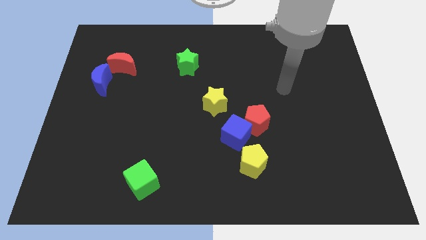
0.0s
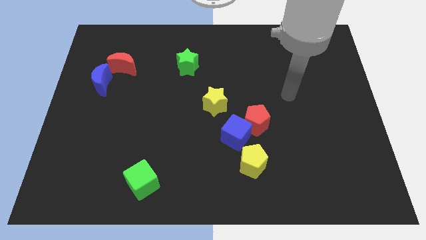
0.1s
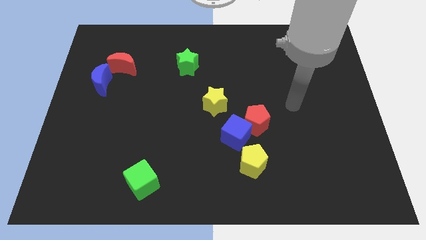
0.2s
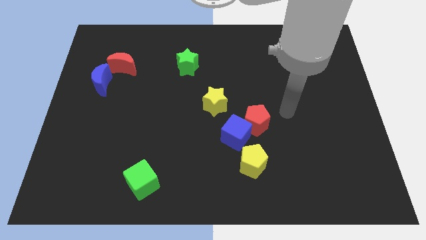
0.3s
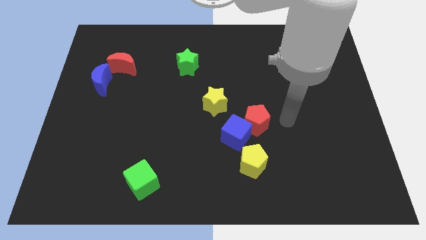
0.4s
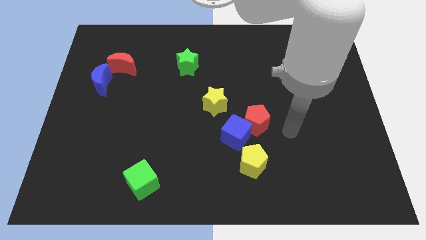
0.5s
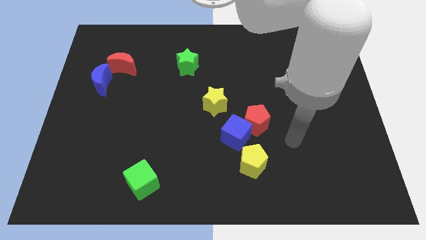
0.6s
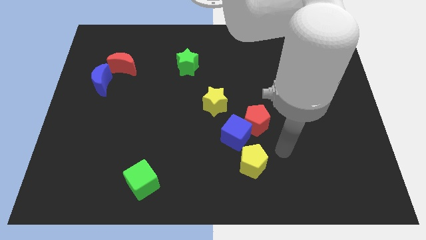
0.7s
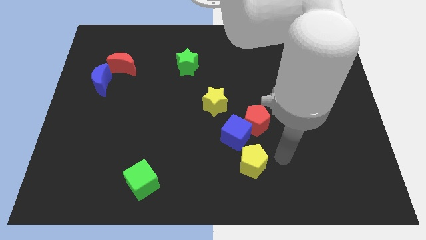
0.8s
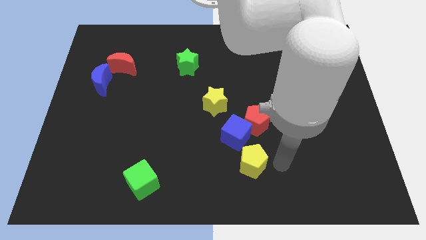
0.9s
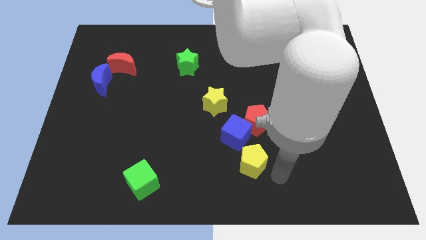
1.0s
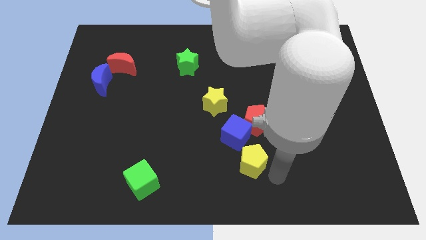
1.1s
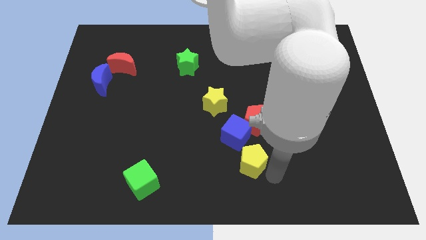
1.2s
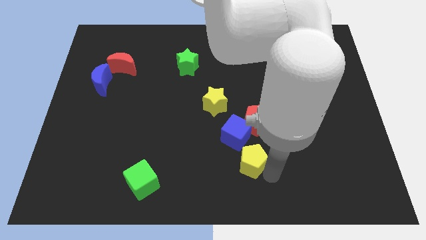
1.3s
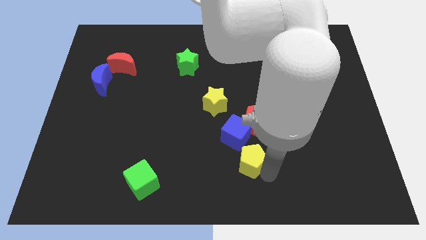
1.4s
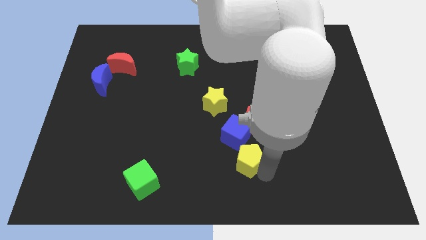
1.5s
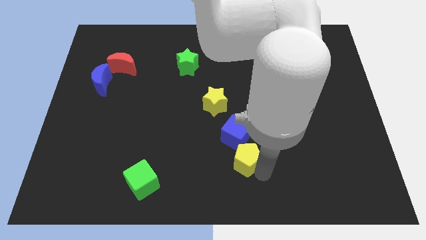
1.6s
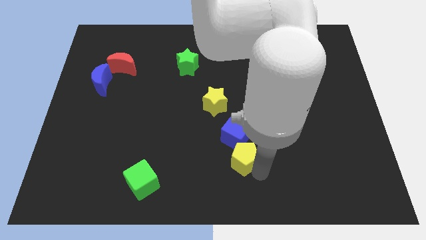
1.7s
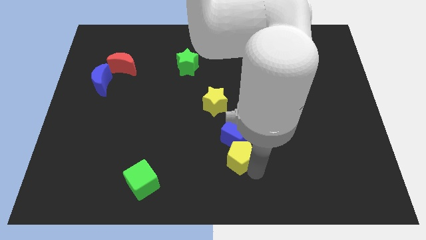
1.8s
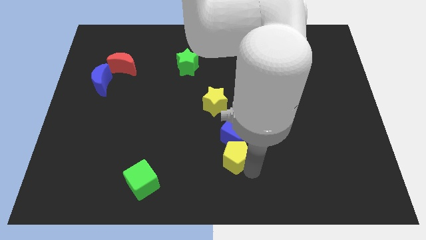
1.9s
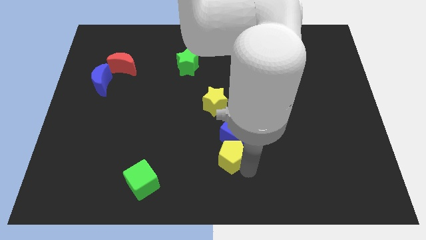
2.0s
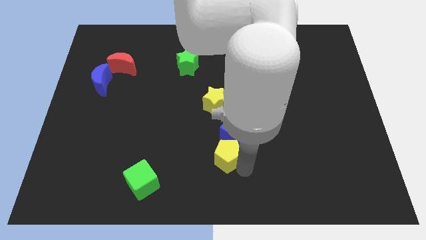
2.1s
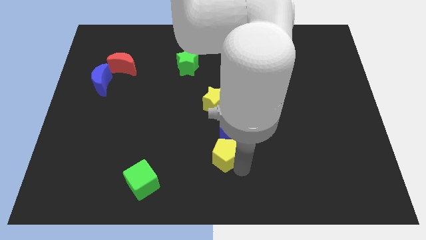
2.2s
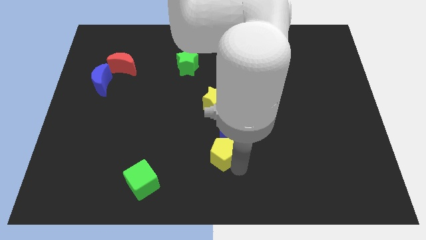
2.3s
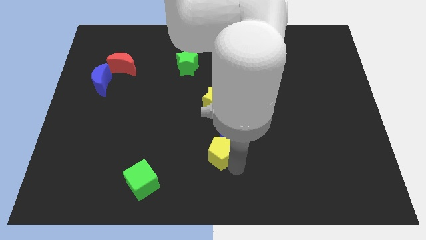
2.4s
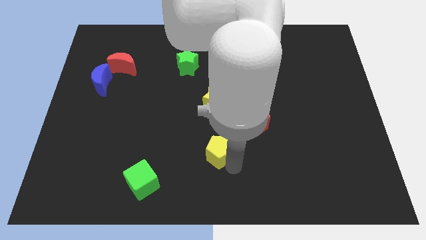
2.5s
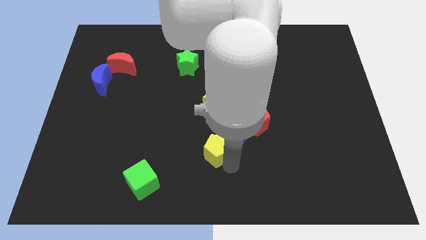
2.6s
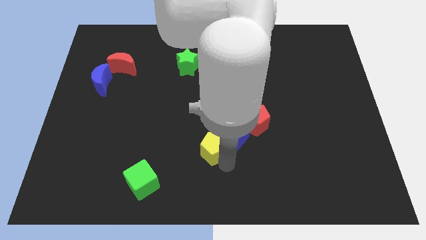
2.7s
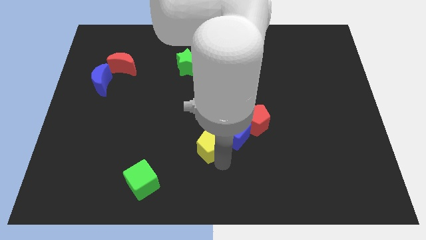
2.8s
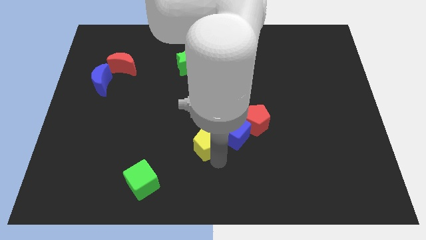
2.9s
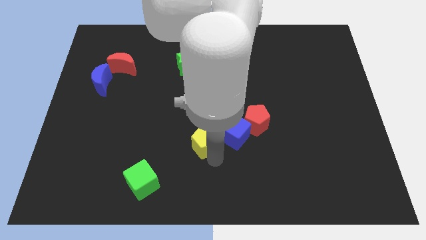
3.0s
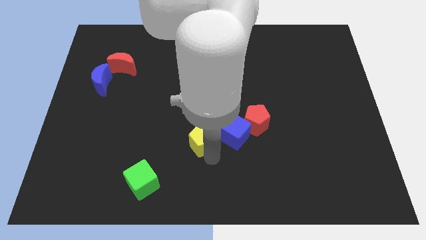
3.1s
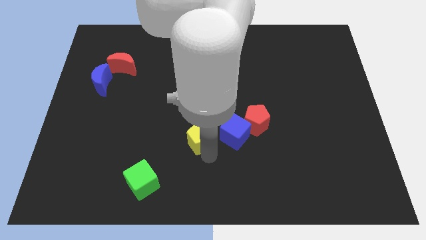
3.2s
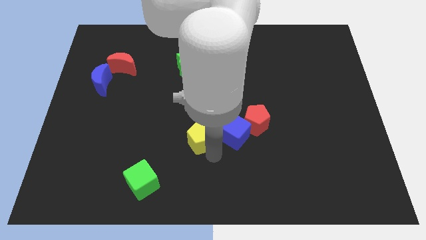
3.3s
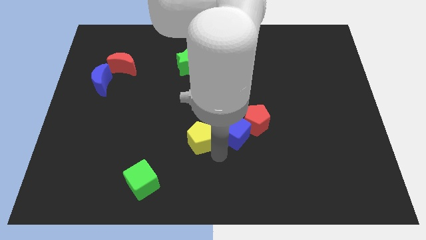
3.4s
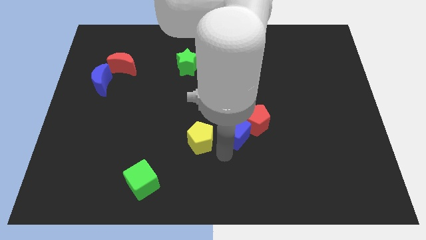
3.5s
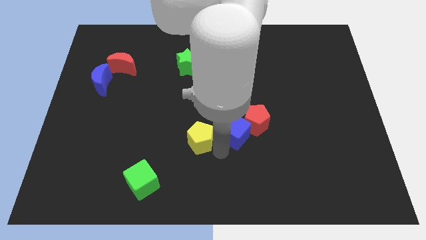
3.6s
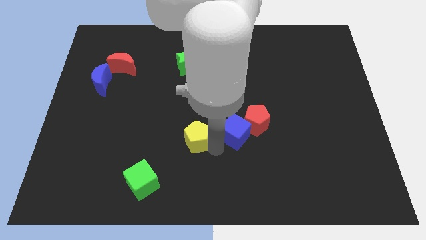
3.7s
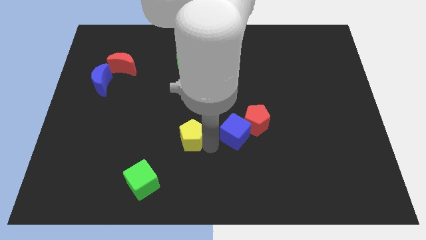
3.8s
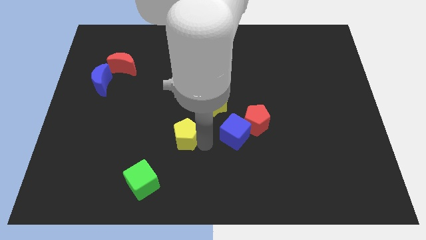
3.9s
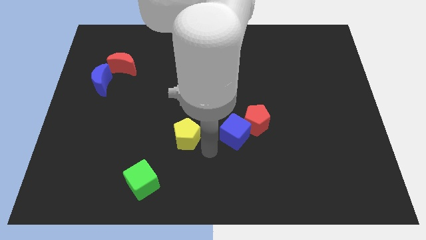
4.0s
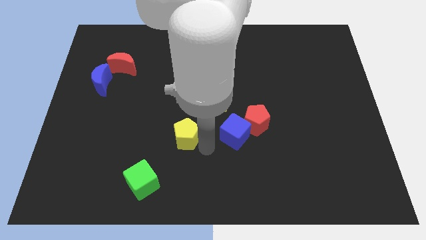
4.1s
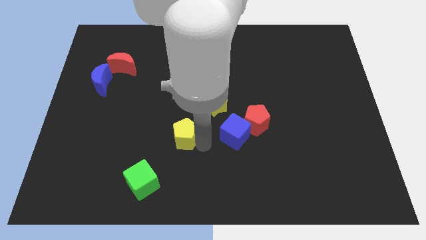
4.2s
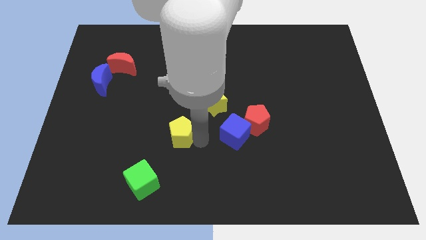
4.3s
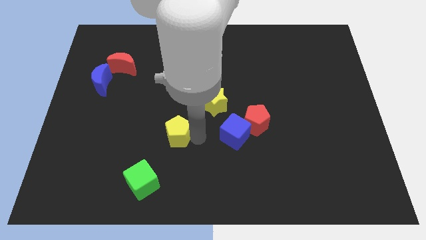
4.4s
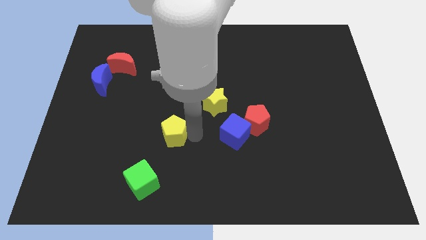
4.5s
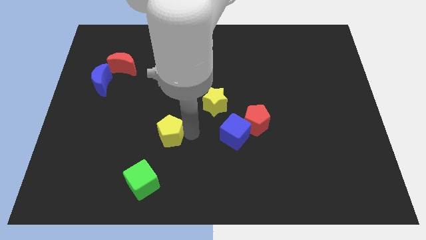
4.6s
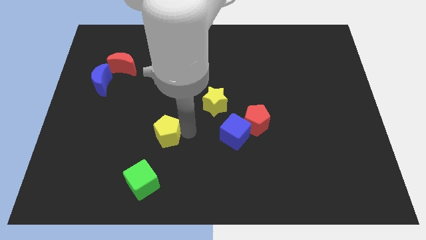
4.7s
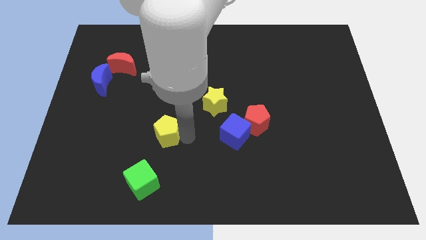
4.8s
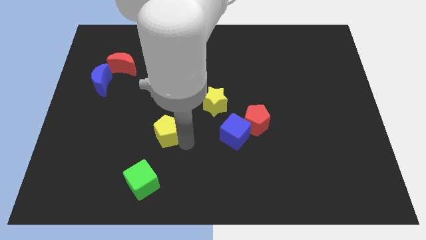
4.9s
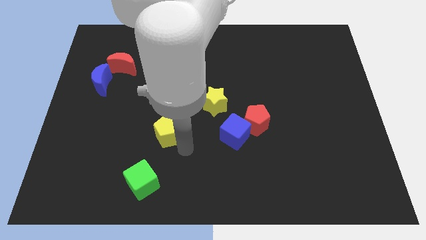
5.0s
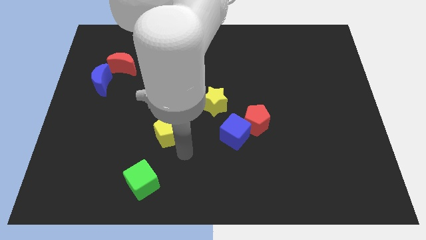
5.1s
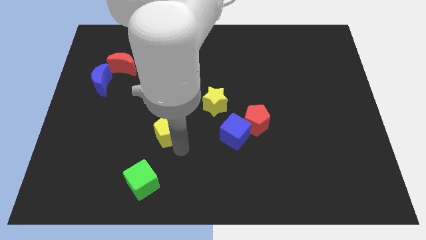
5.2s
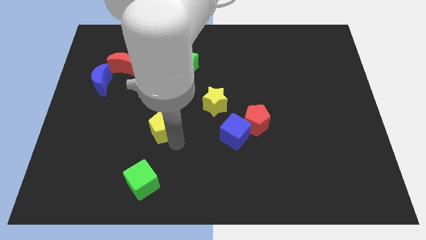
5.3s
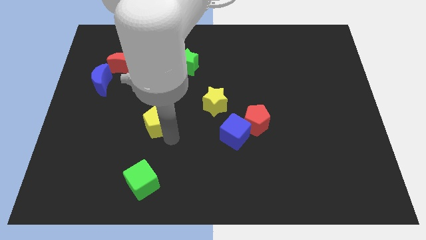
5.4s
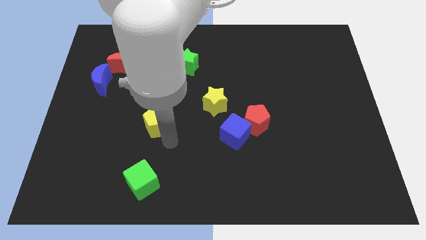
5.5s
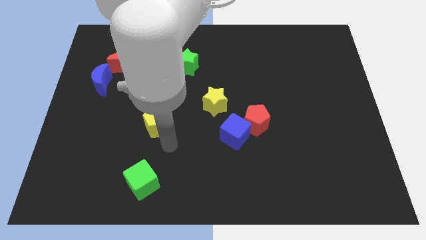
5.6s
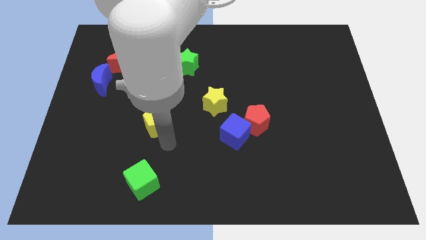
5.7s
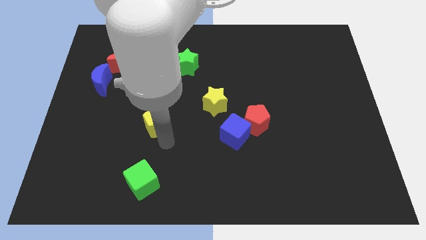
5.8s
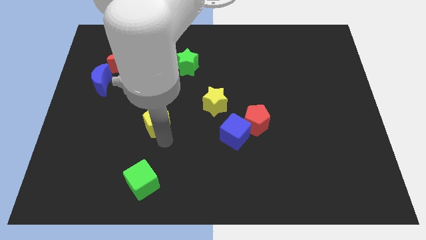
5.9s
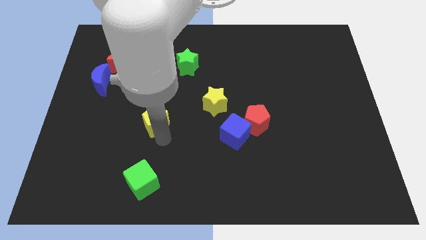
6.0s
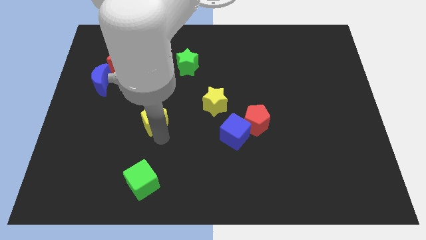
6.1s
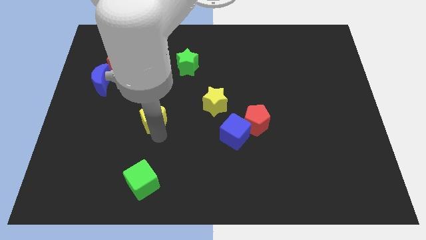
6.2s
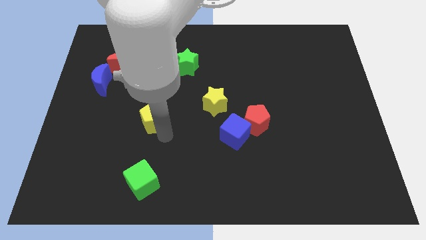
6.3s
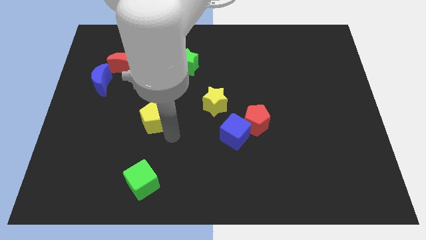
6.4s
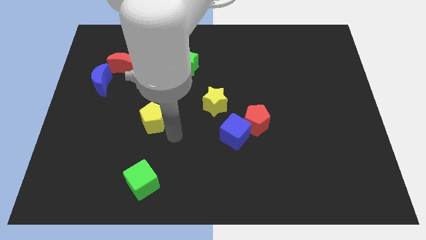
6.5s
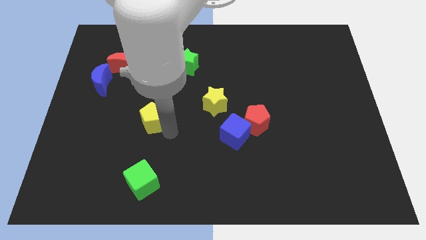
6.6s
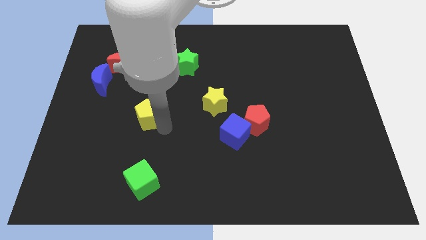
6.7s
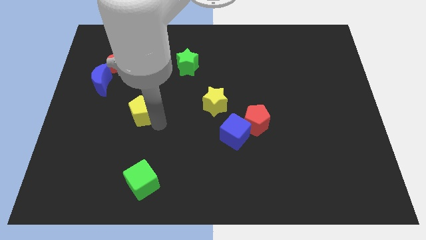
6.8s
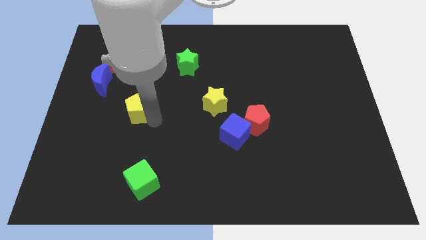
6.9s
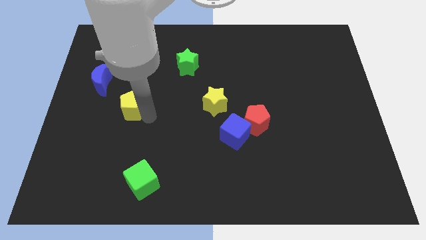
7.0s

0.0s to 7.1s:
push the yellow pentagon to the bottom right of the blue moon
